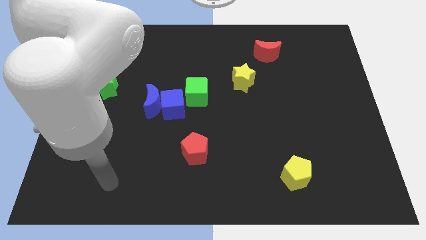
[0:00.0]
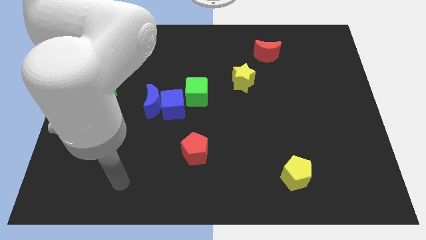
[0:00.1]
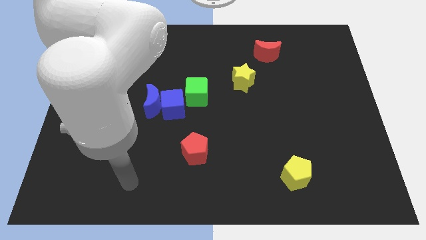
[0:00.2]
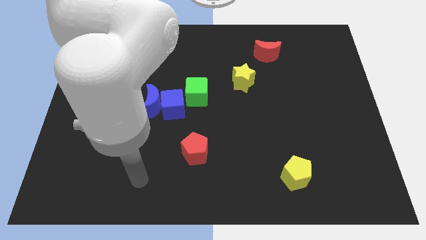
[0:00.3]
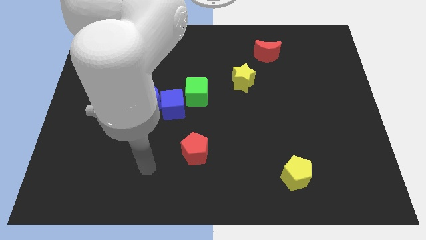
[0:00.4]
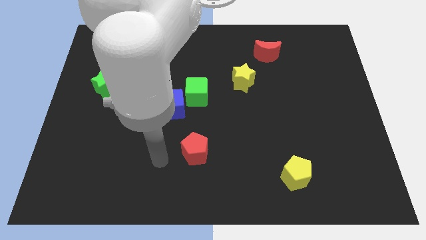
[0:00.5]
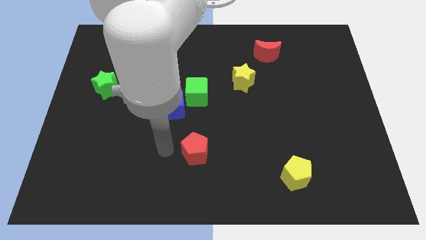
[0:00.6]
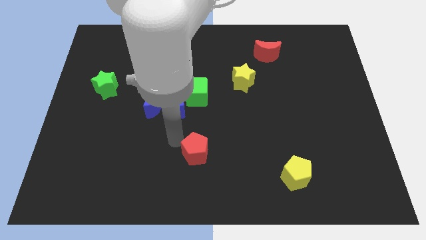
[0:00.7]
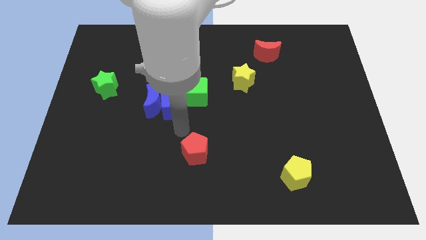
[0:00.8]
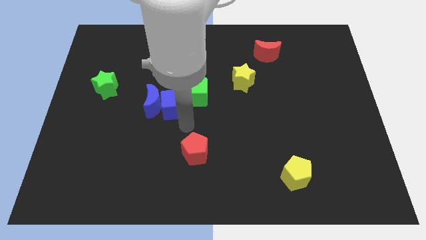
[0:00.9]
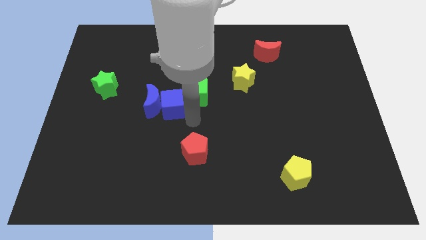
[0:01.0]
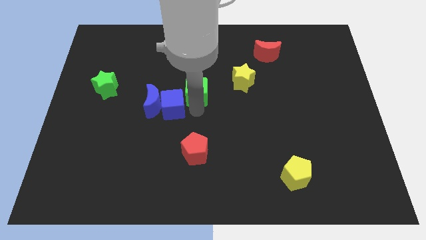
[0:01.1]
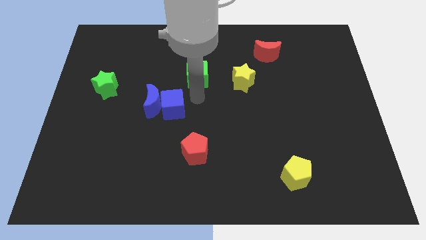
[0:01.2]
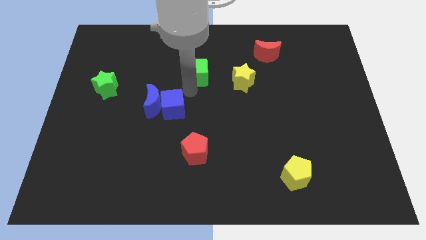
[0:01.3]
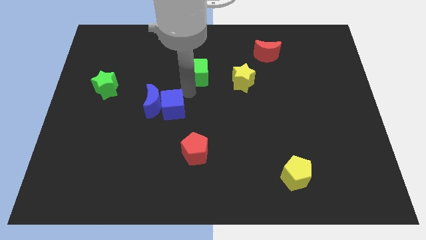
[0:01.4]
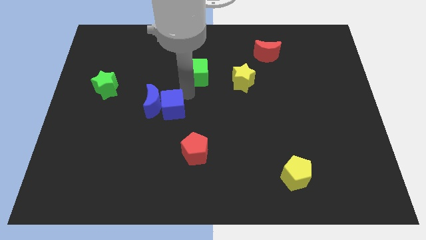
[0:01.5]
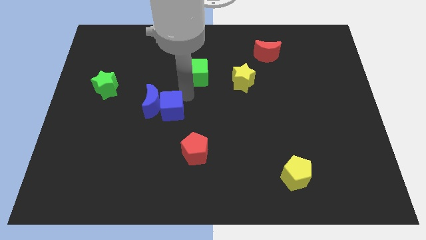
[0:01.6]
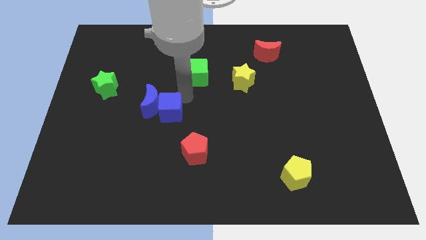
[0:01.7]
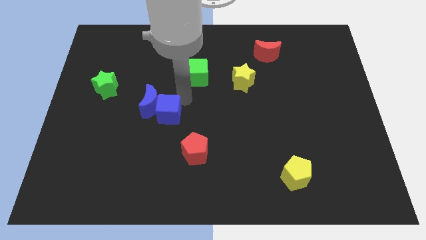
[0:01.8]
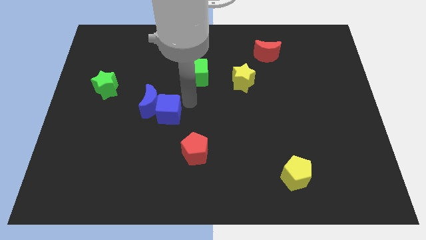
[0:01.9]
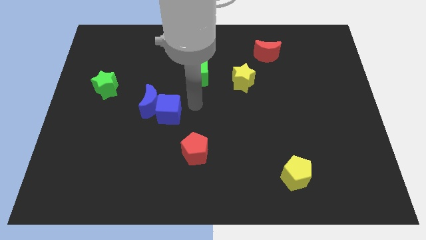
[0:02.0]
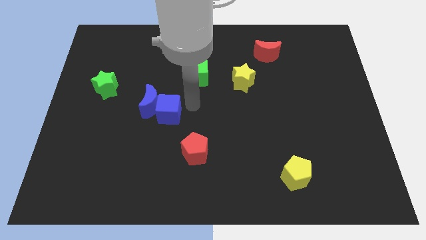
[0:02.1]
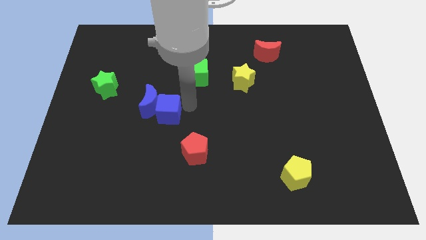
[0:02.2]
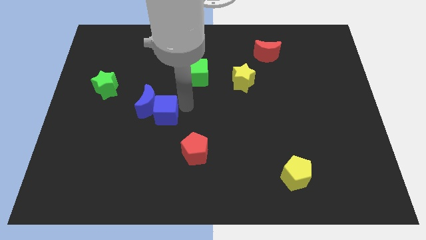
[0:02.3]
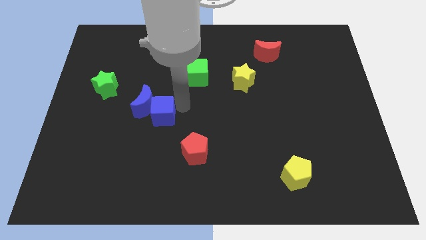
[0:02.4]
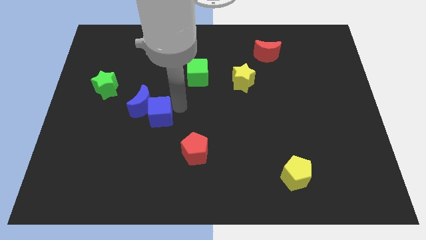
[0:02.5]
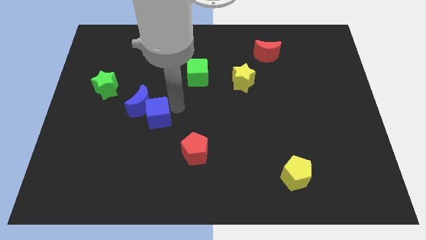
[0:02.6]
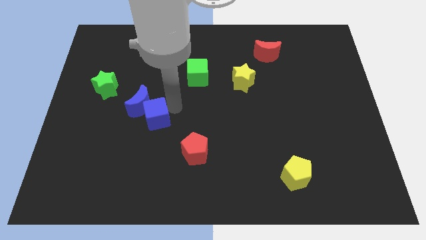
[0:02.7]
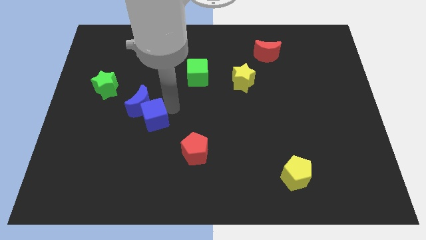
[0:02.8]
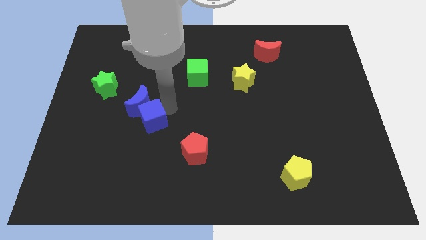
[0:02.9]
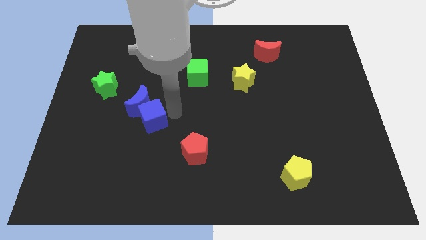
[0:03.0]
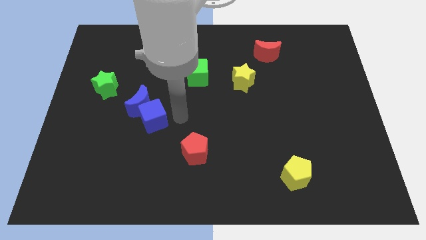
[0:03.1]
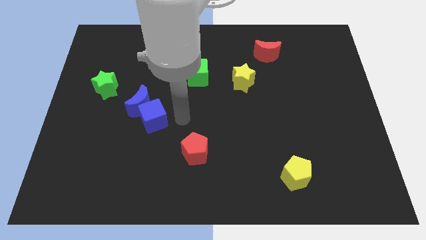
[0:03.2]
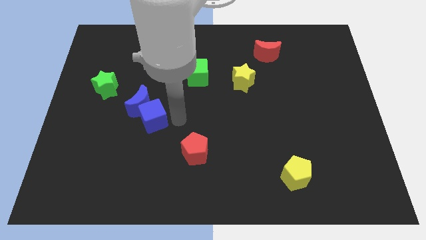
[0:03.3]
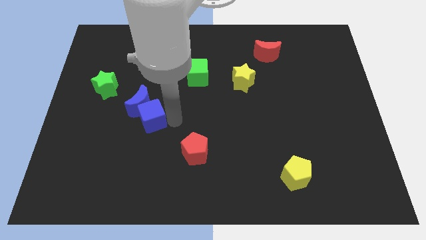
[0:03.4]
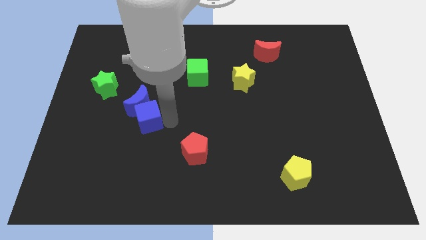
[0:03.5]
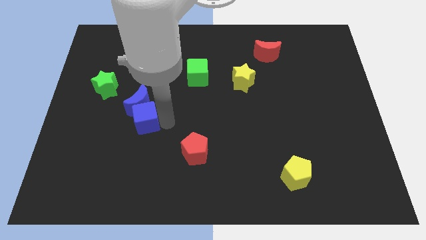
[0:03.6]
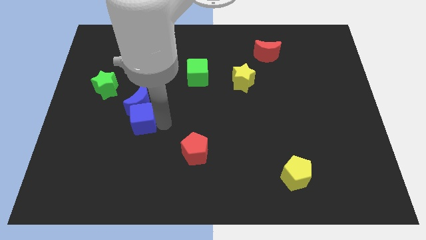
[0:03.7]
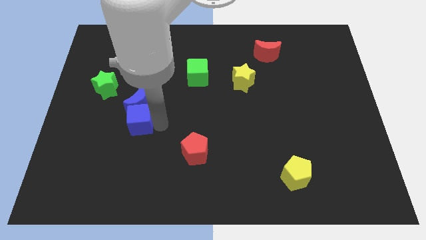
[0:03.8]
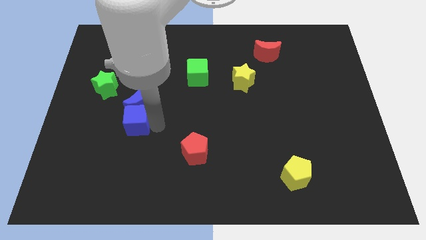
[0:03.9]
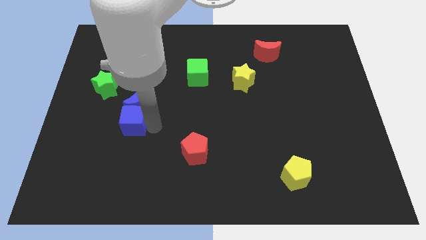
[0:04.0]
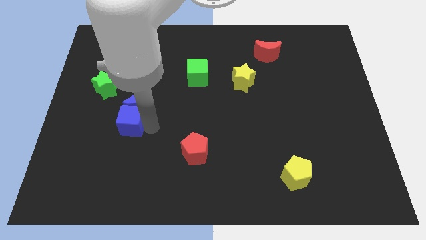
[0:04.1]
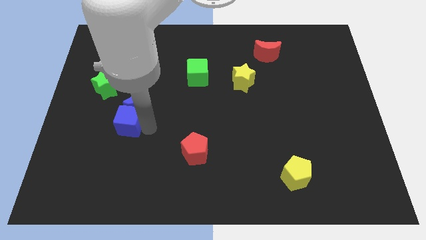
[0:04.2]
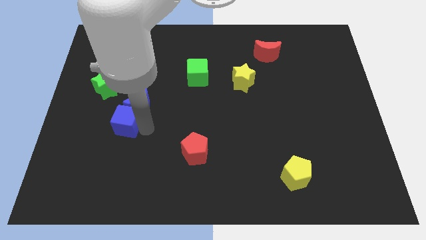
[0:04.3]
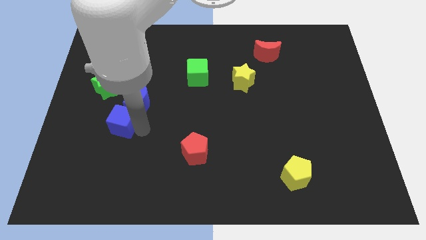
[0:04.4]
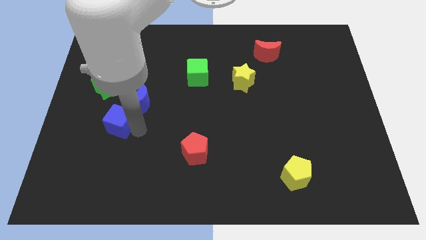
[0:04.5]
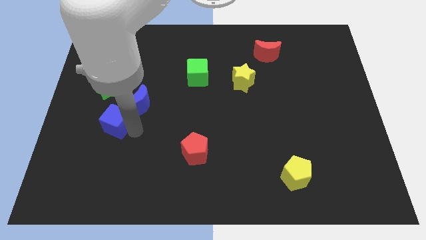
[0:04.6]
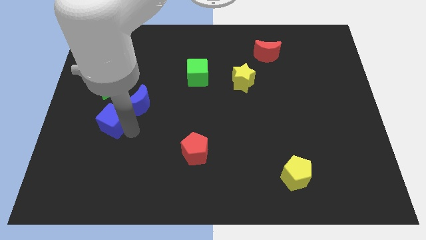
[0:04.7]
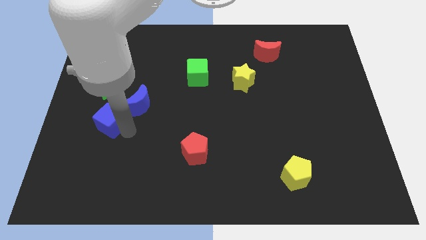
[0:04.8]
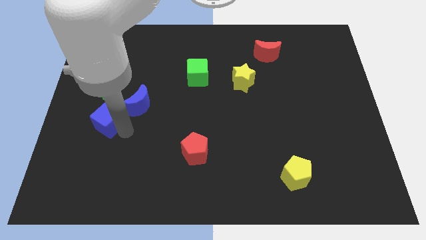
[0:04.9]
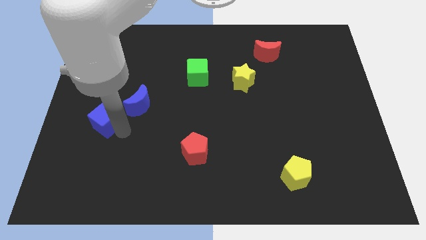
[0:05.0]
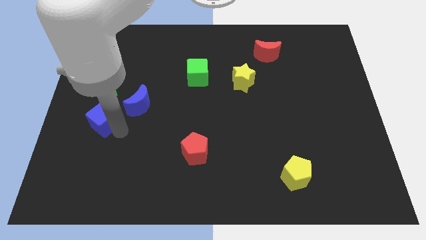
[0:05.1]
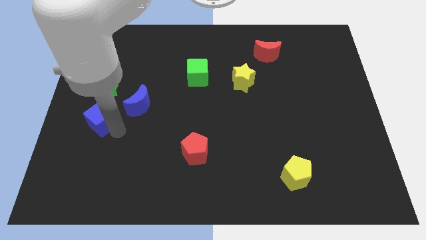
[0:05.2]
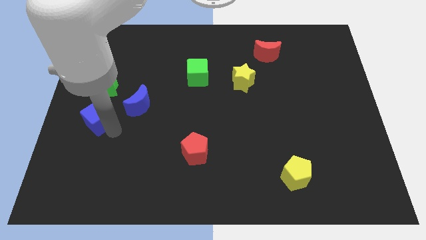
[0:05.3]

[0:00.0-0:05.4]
push the blue cube to the left side
